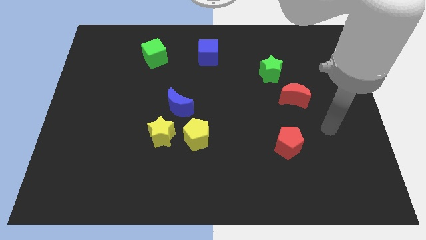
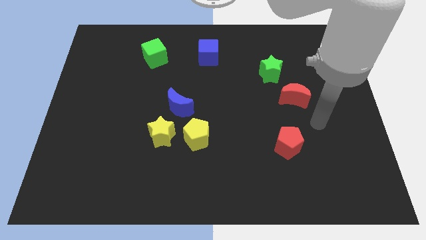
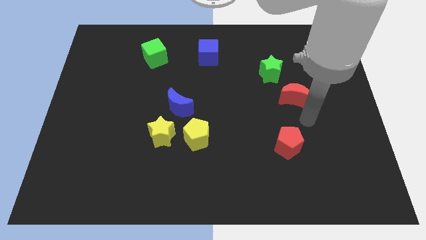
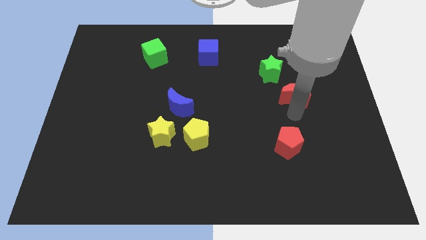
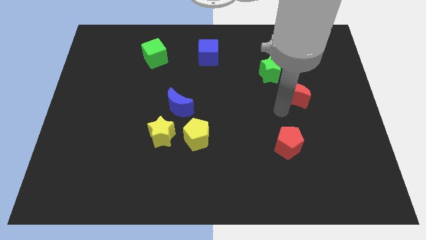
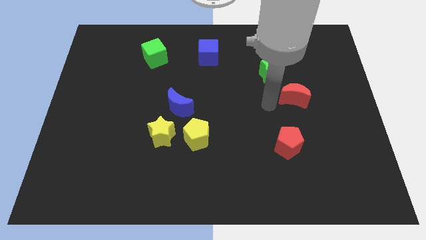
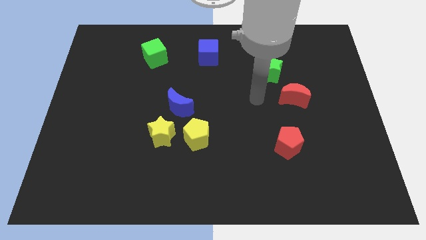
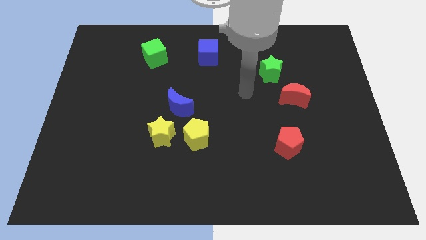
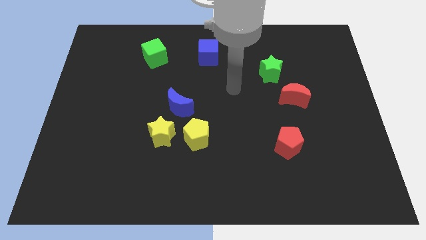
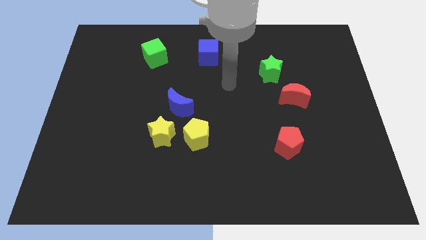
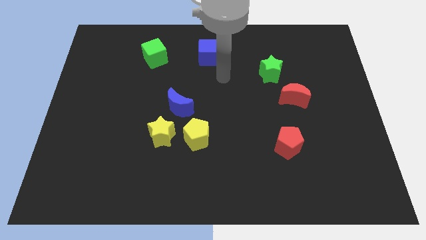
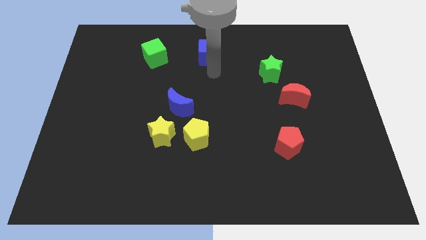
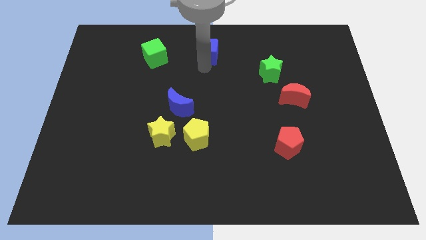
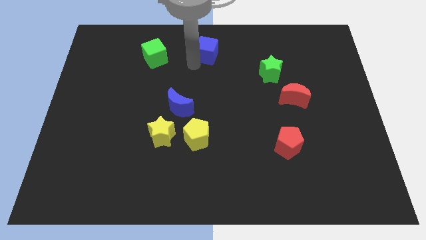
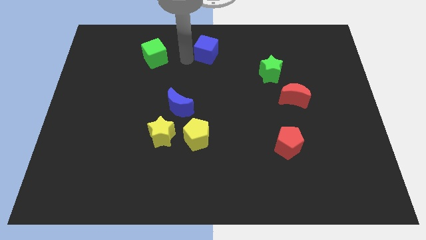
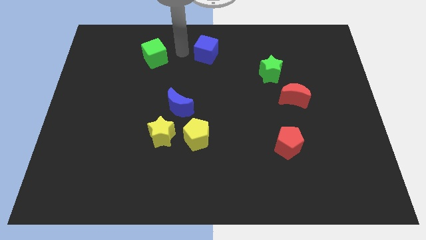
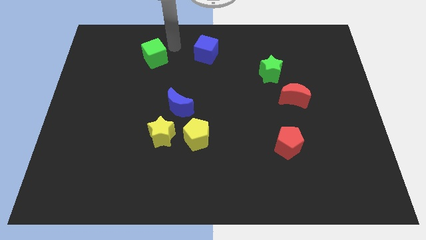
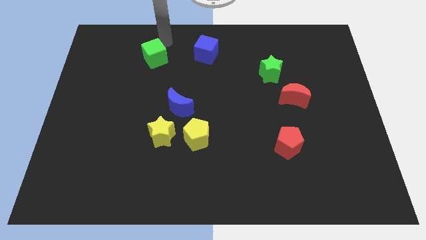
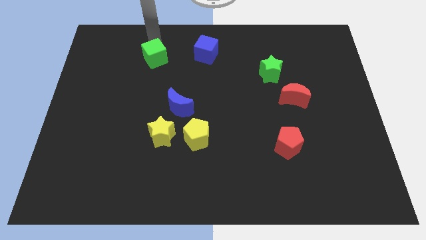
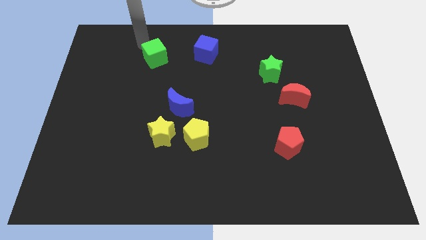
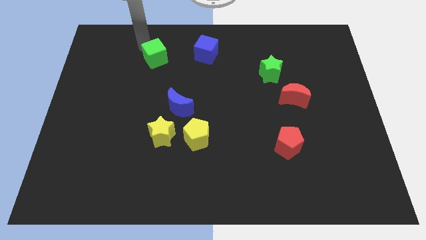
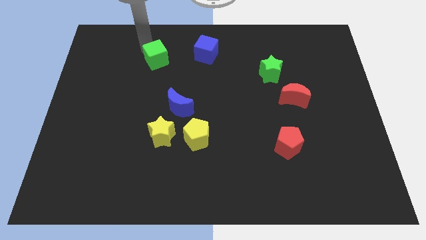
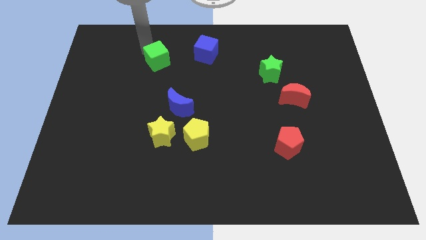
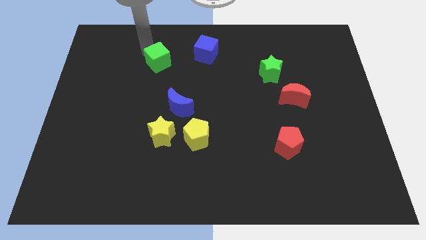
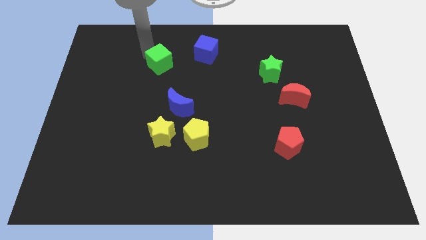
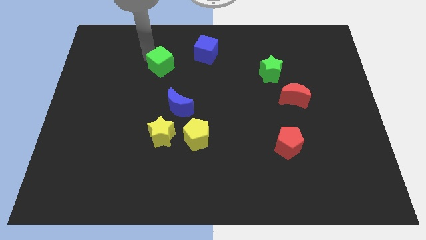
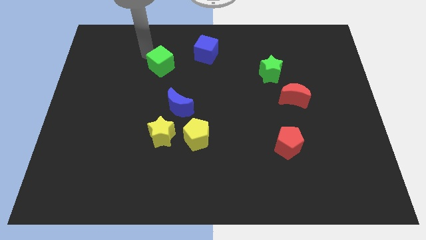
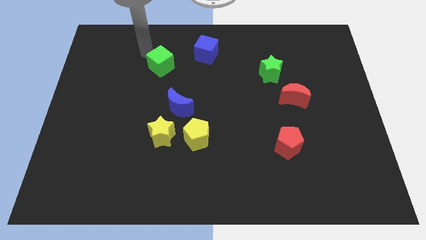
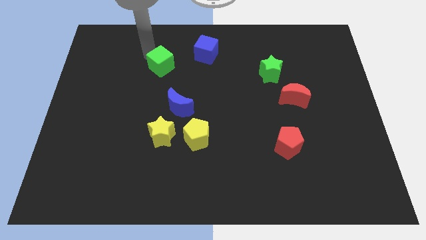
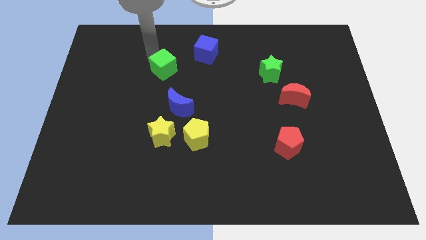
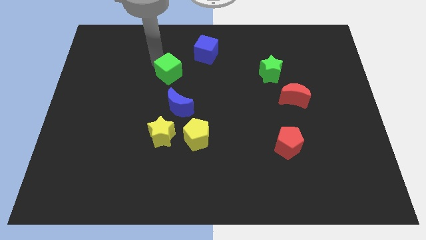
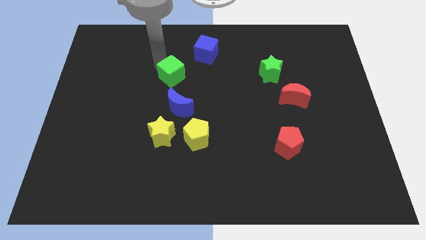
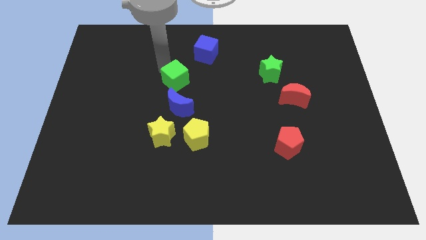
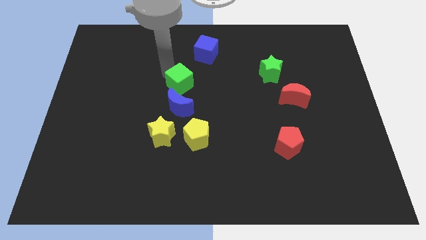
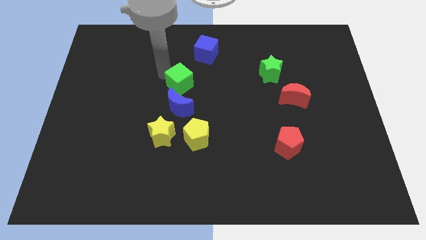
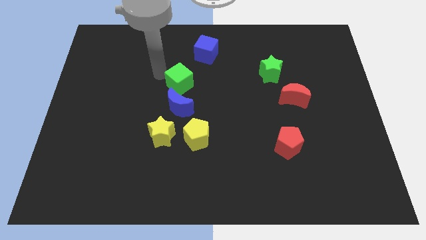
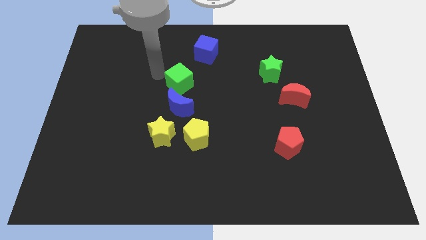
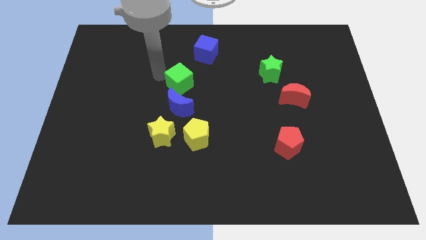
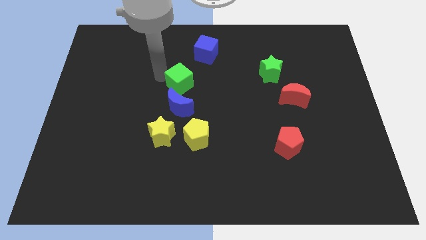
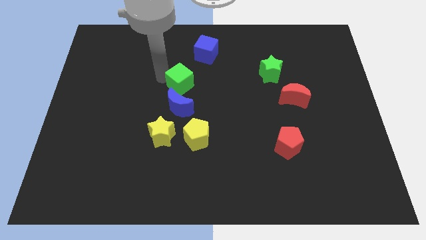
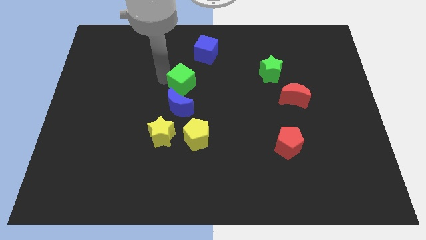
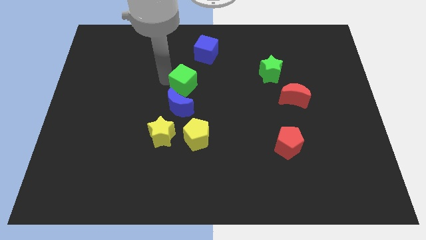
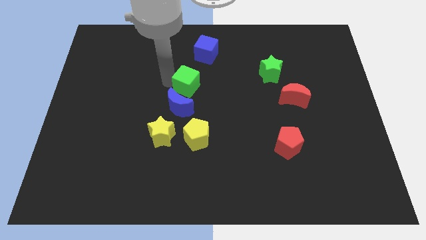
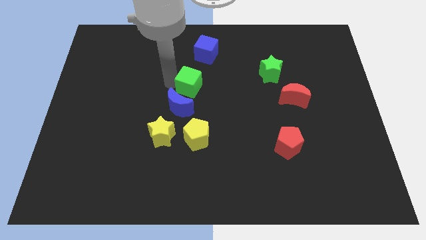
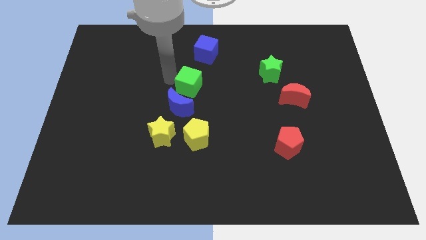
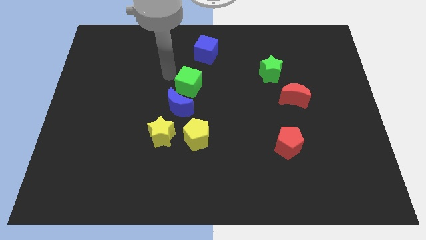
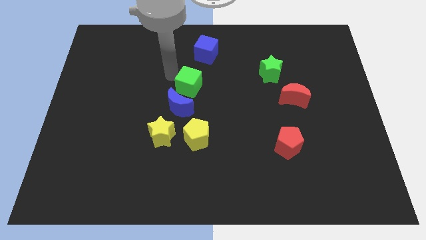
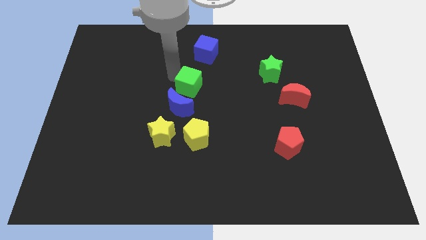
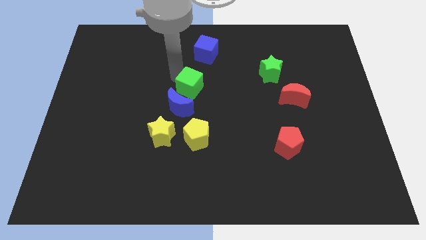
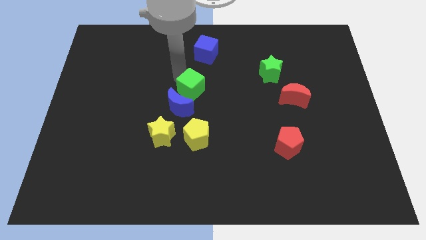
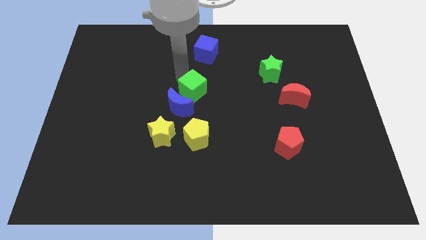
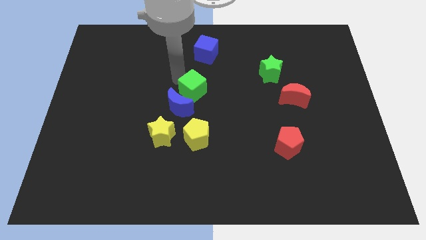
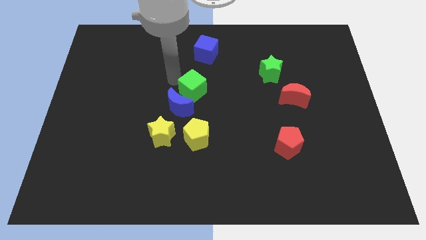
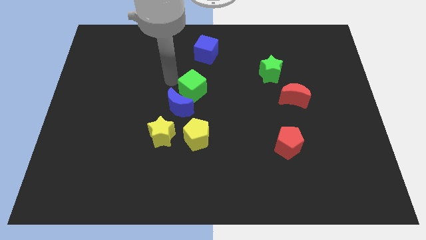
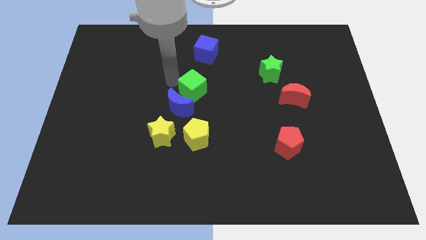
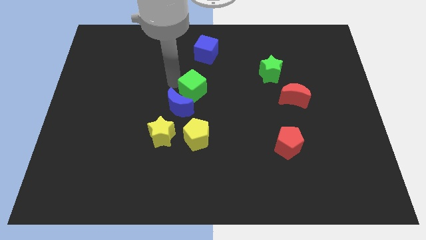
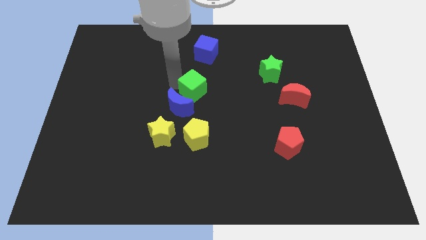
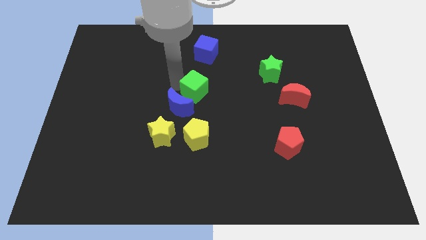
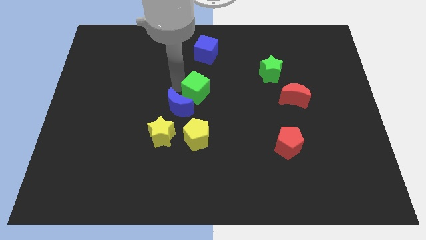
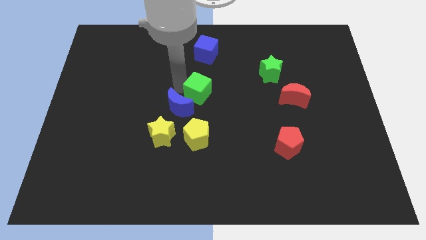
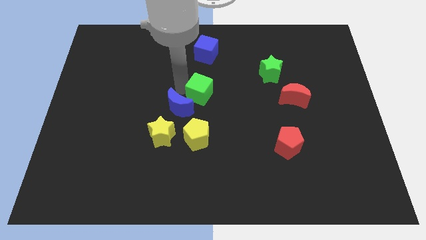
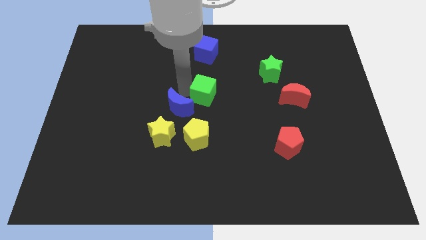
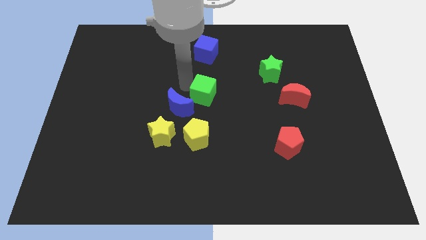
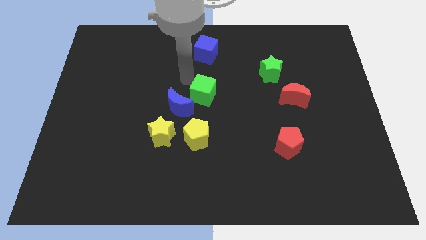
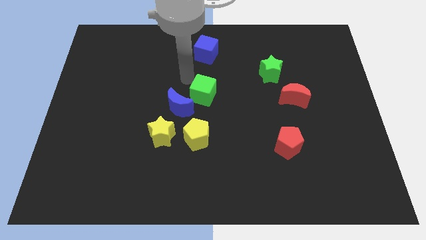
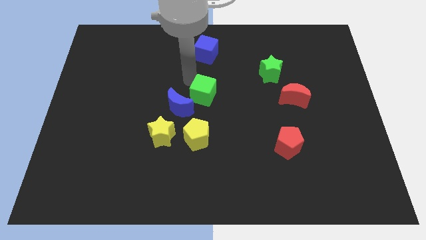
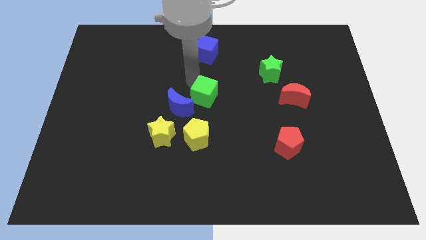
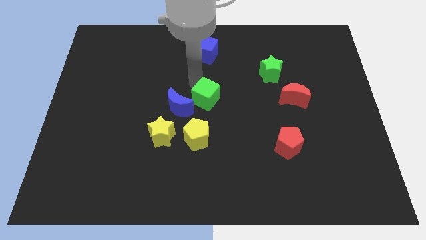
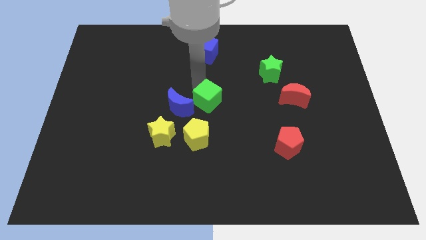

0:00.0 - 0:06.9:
slide the green cube downwards and to the right diagonally

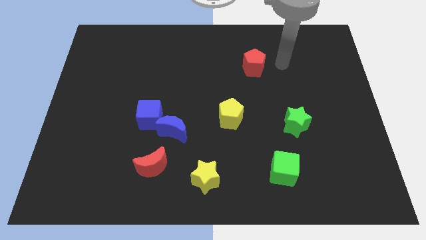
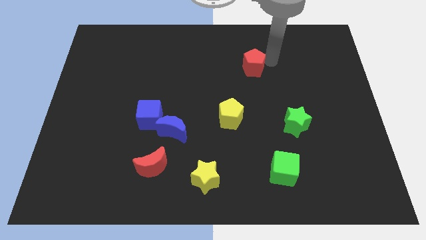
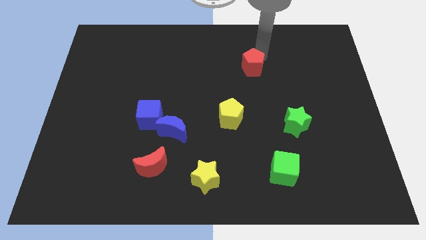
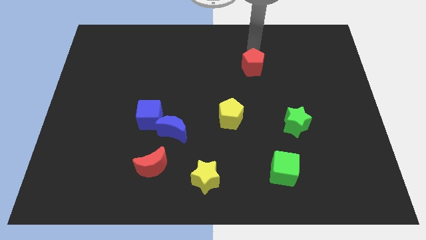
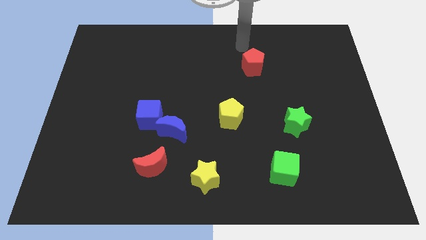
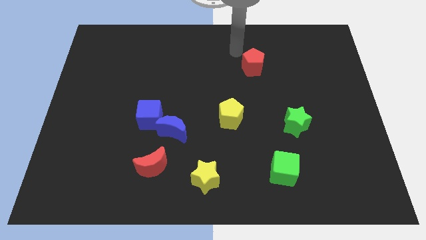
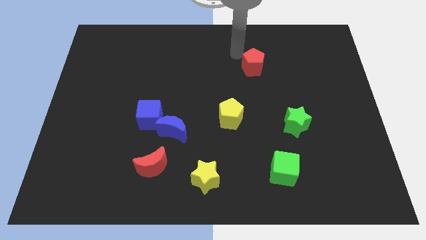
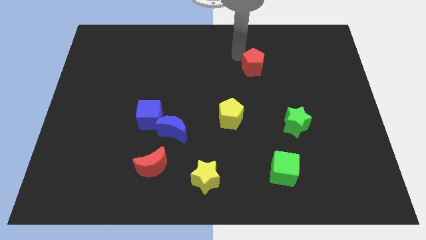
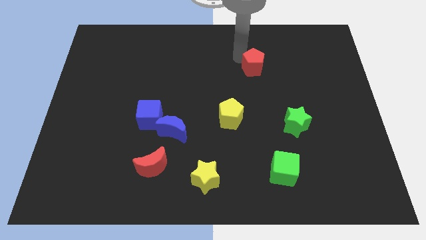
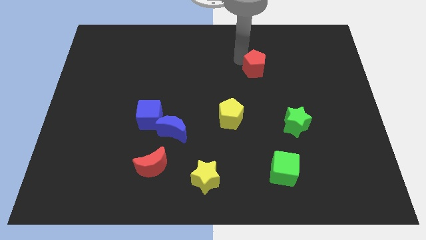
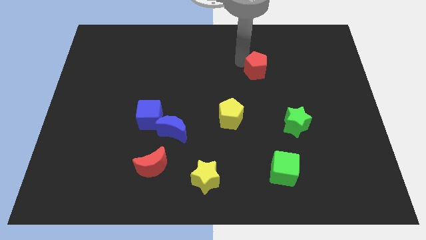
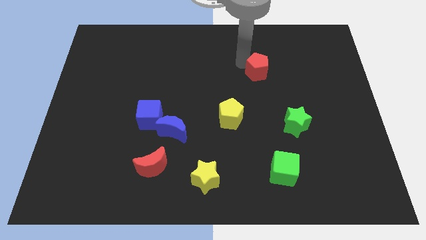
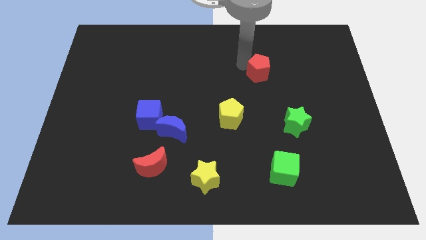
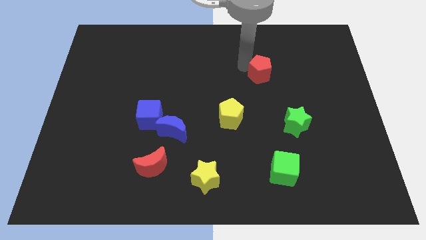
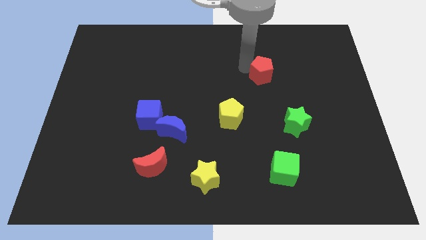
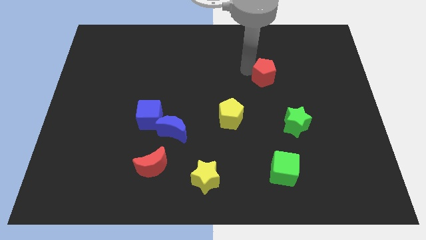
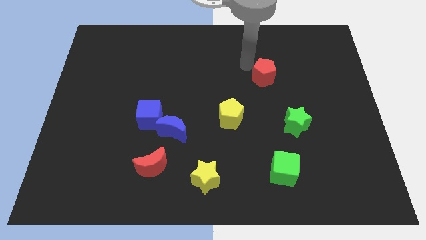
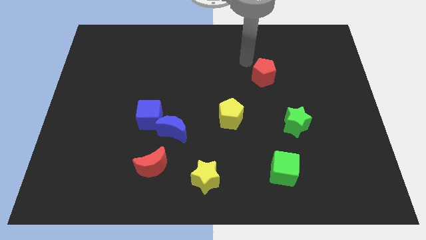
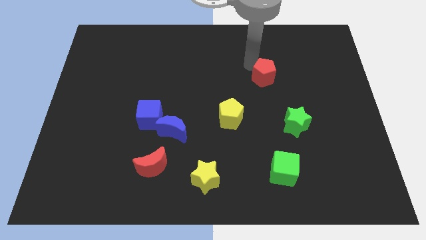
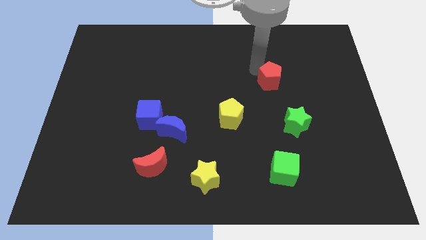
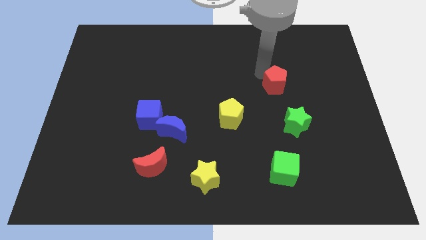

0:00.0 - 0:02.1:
slightly slide the red pentagon diagonally down and to the right
